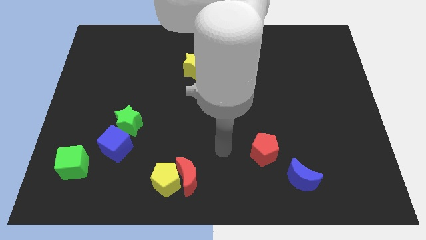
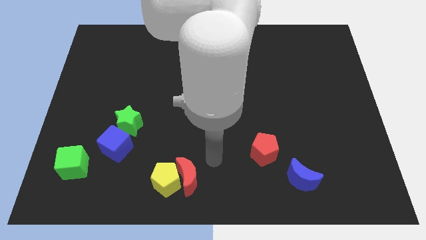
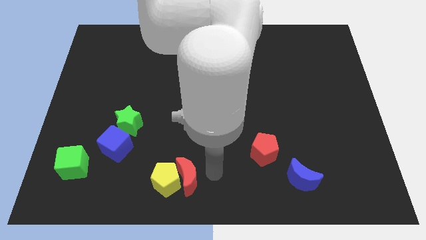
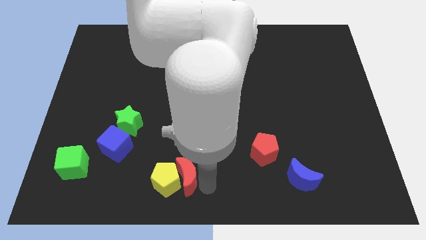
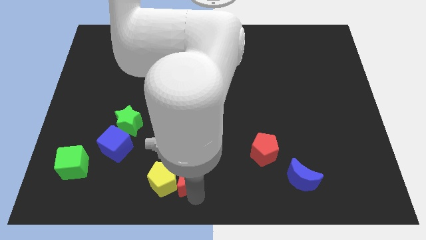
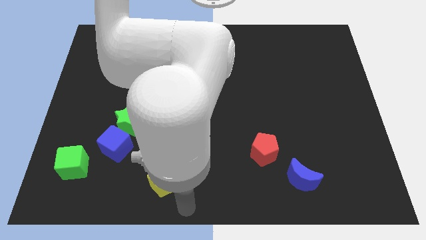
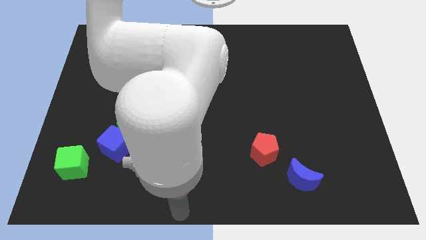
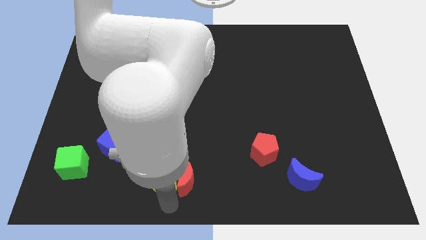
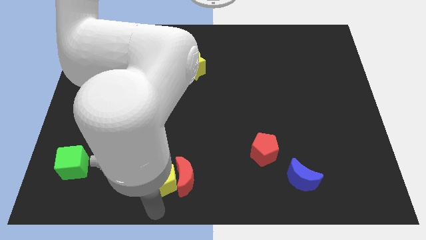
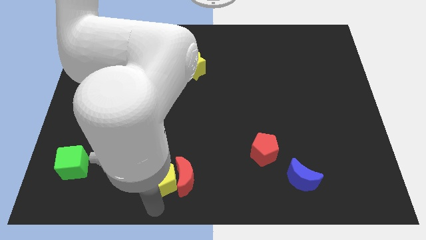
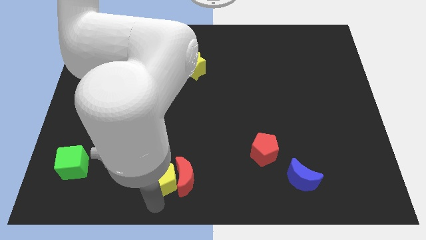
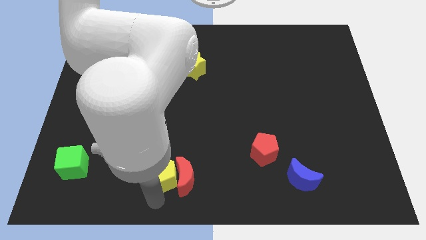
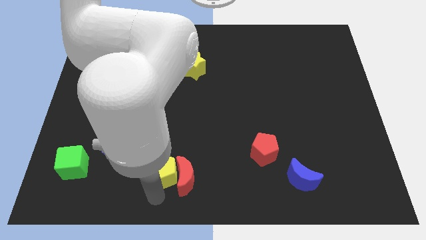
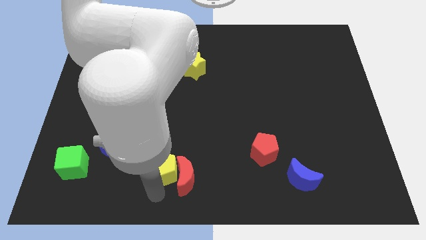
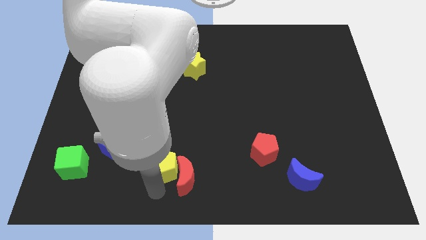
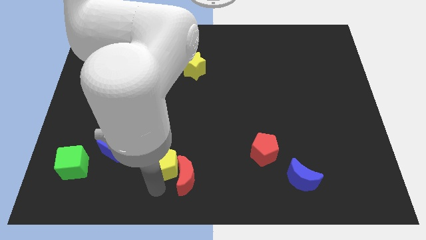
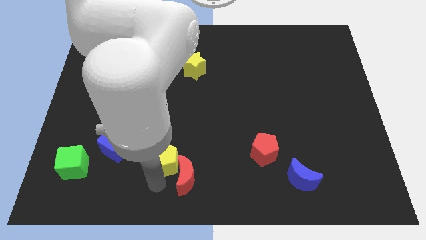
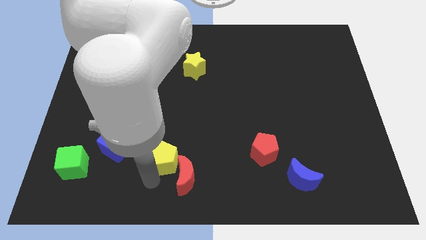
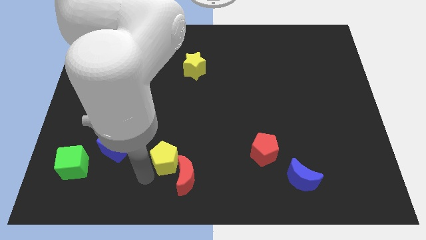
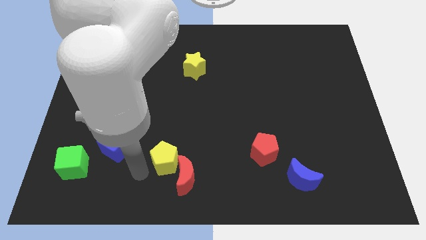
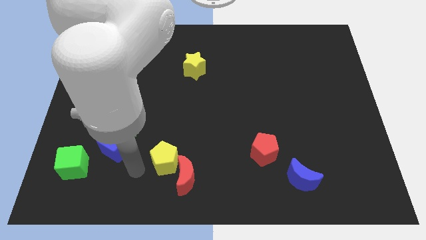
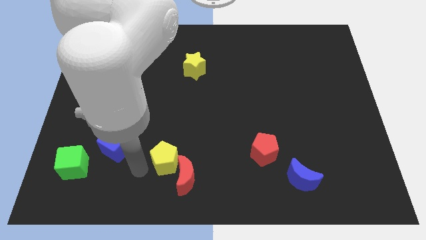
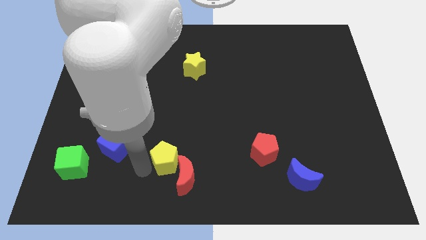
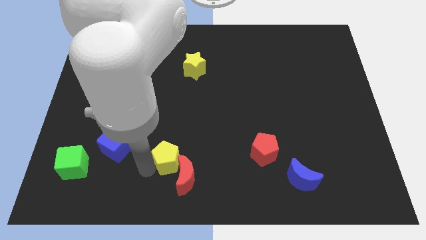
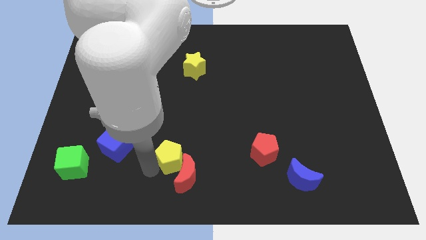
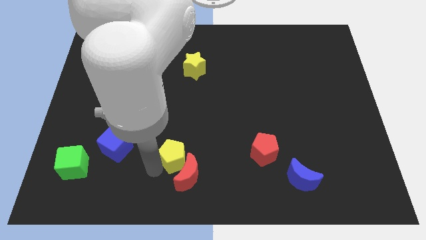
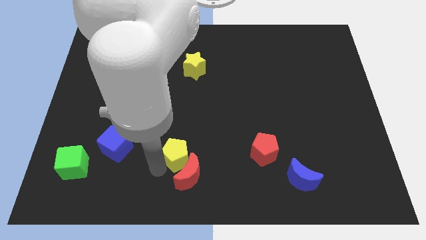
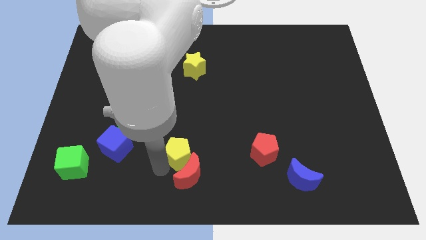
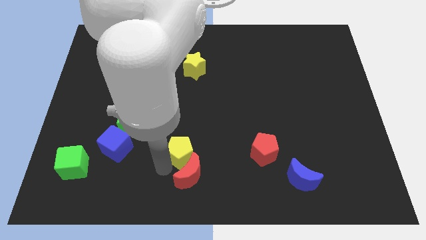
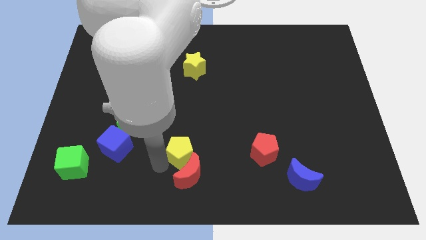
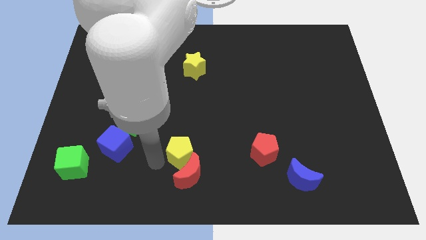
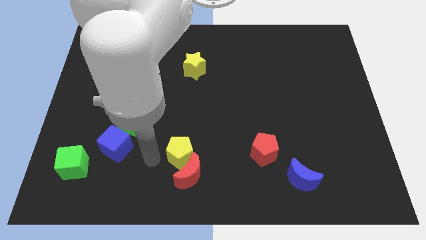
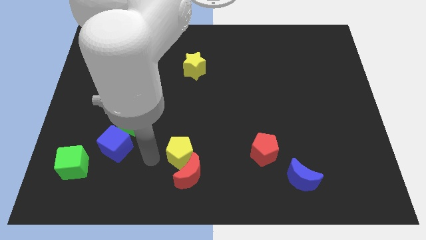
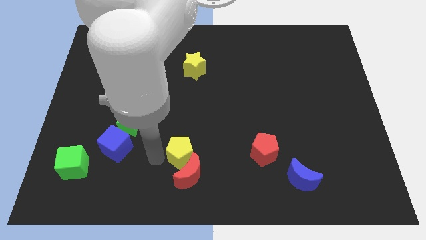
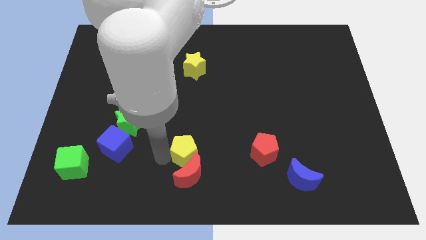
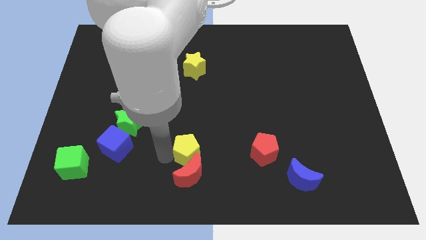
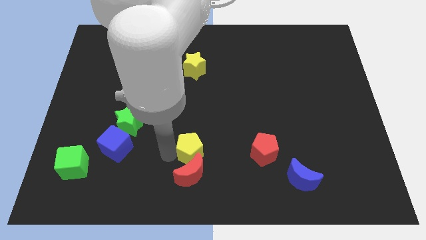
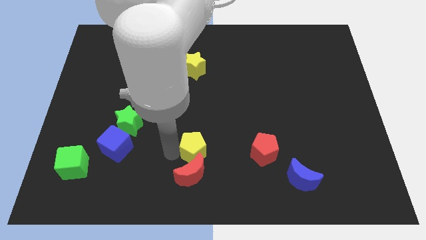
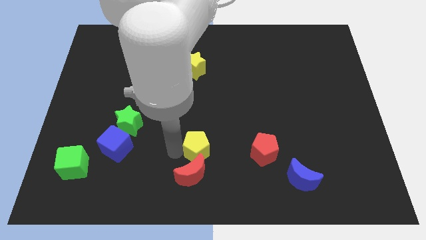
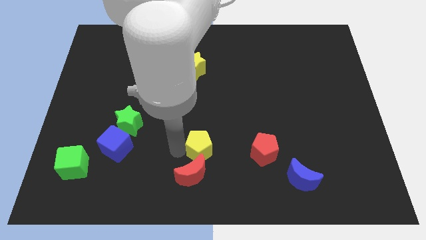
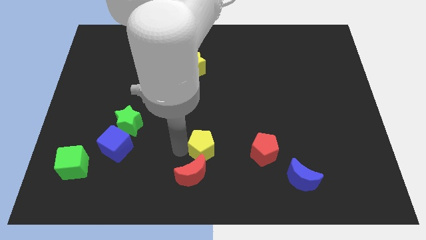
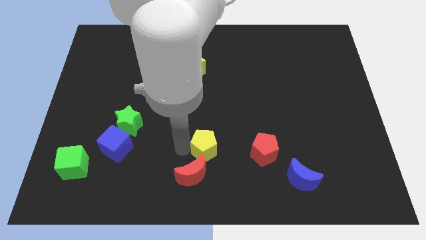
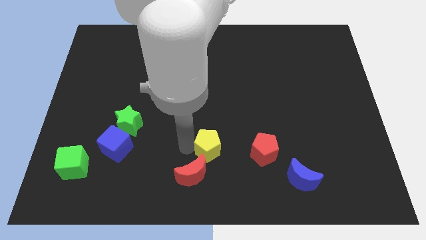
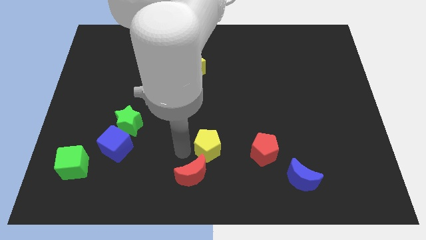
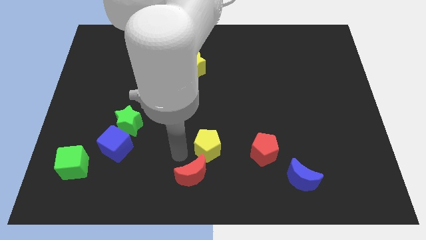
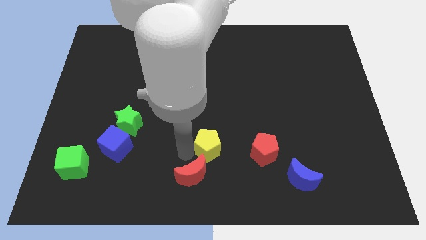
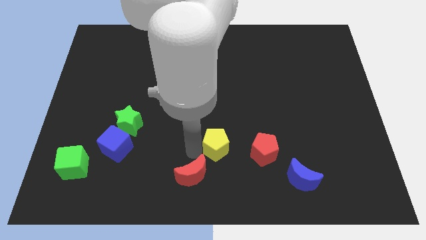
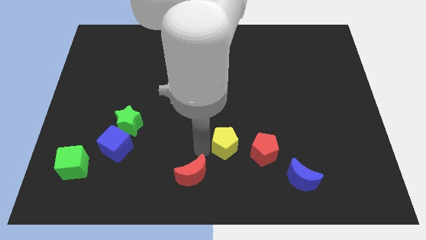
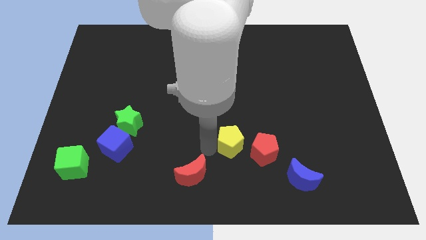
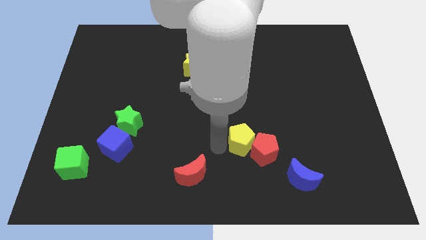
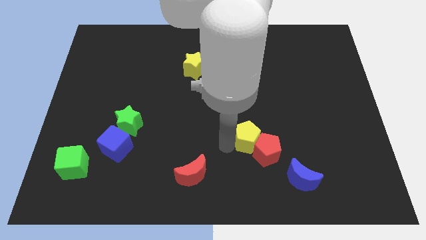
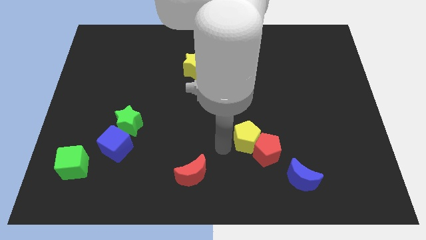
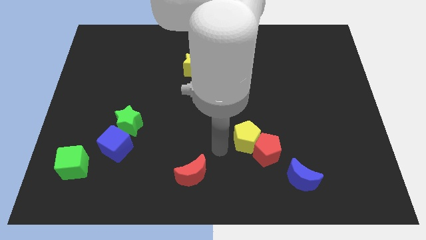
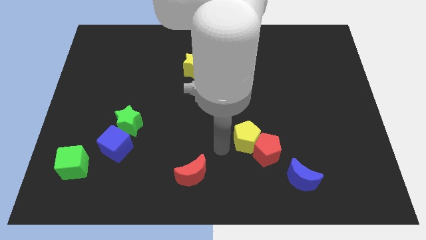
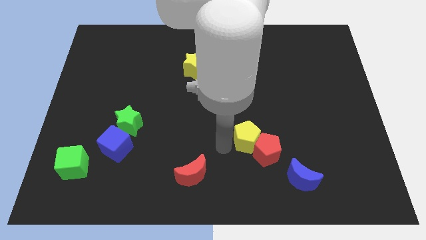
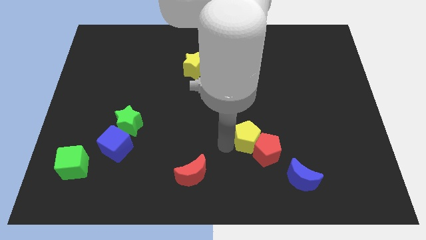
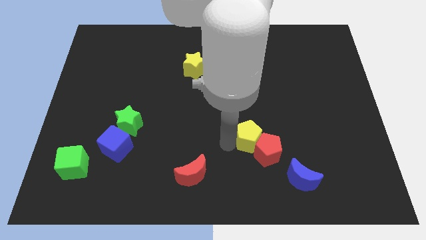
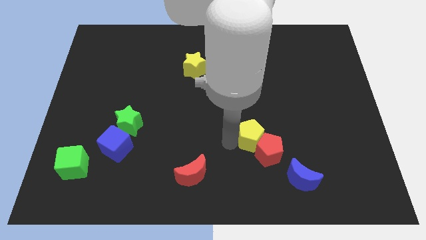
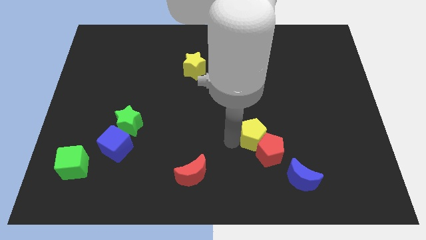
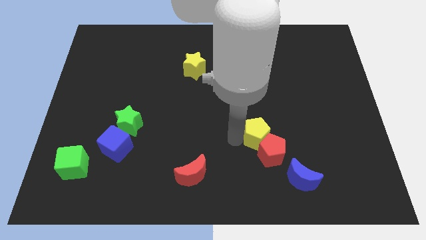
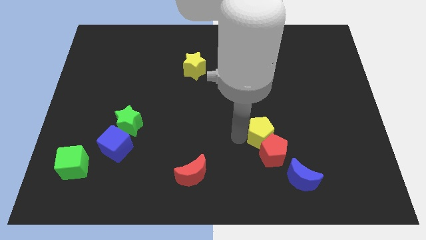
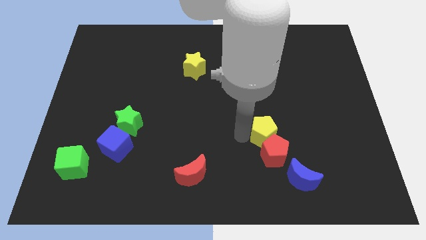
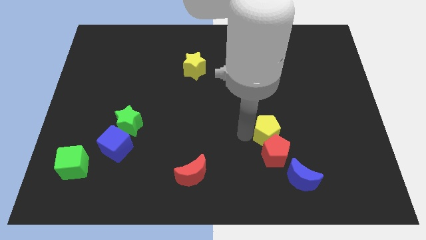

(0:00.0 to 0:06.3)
slide the yellow pentagon to the top right of the red pentagon

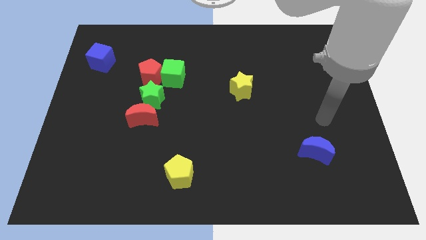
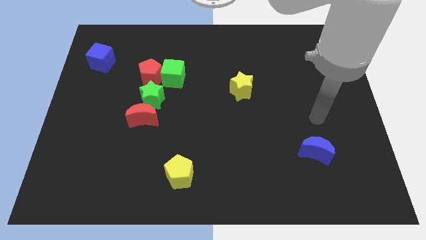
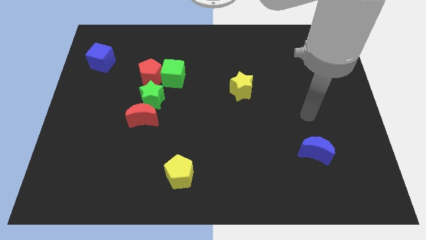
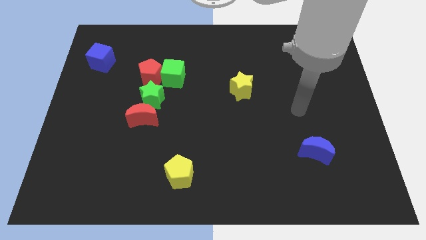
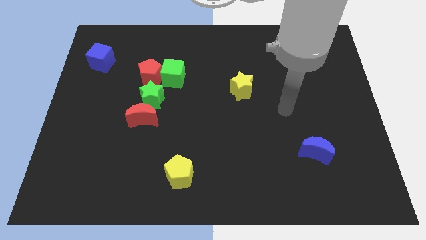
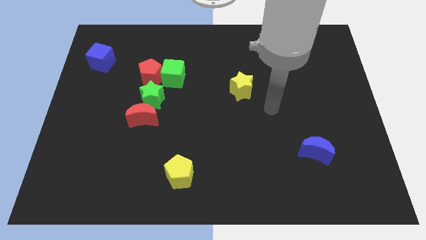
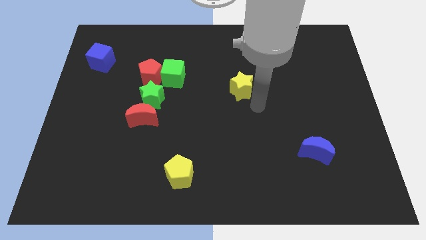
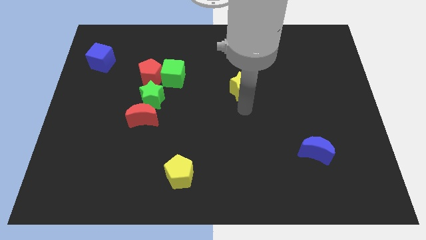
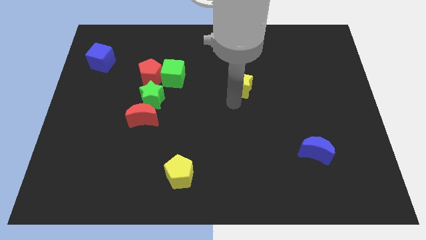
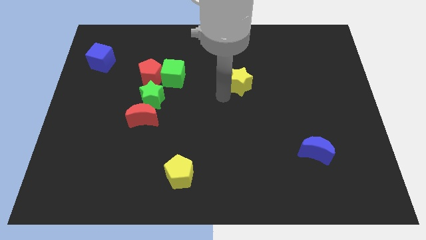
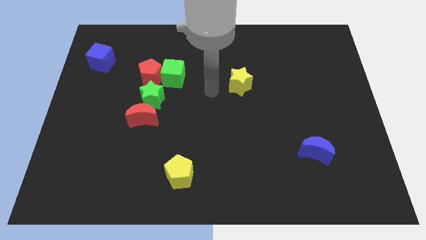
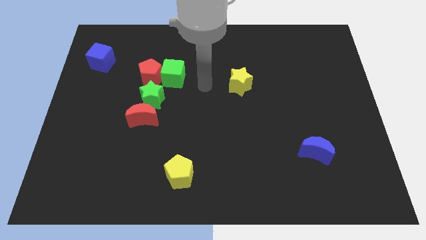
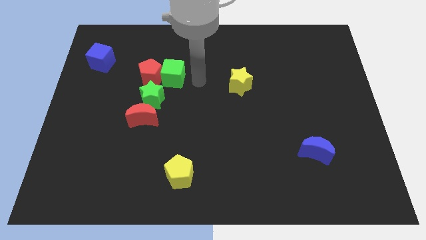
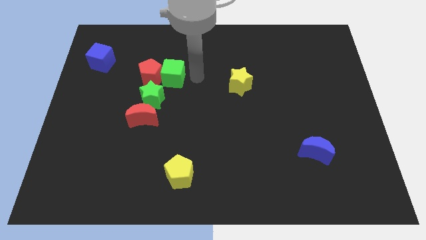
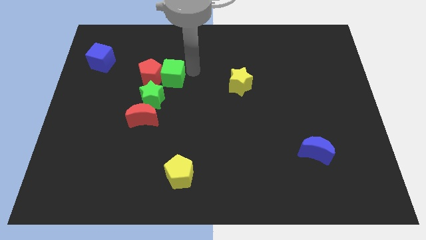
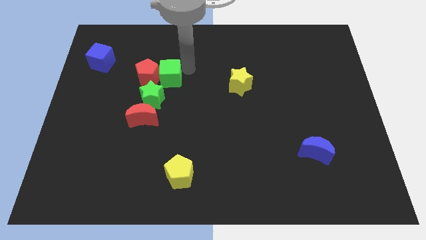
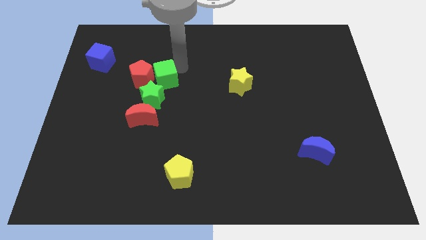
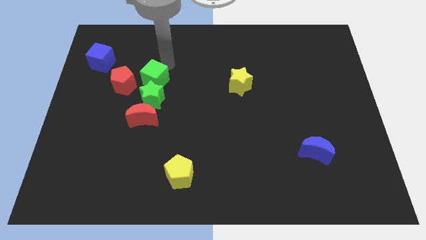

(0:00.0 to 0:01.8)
push the red pentagon left of the green star
